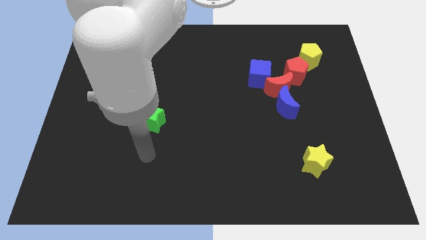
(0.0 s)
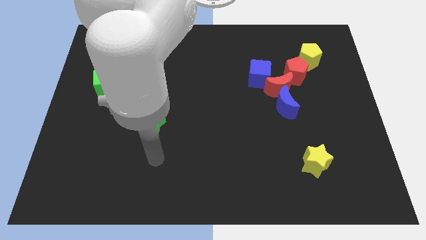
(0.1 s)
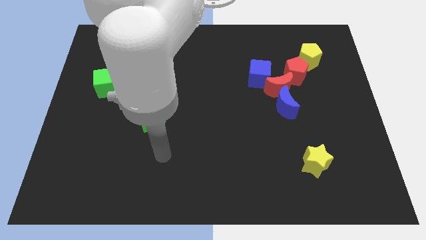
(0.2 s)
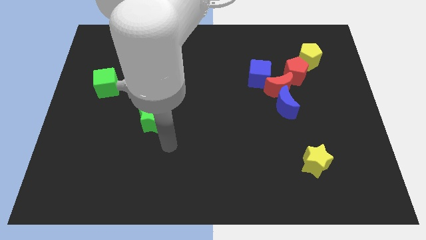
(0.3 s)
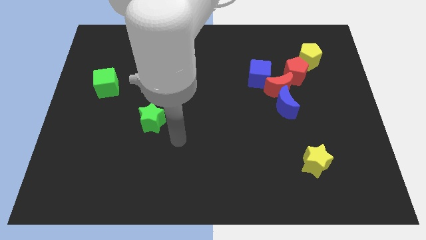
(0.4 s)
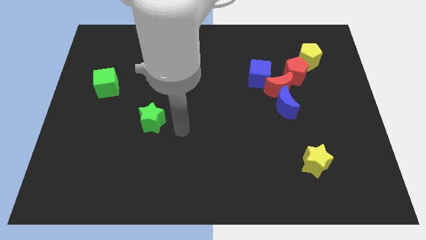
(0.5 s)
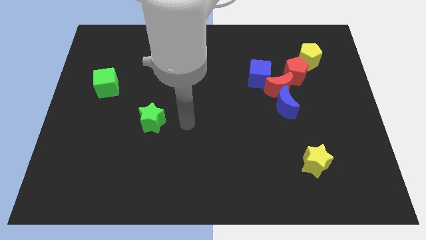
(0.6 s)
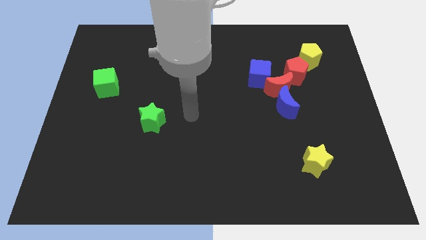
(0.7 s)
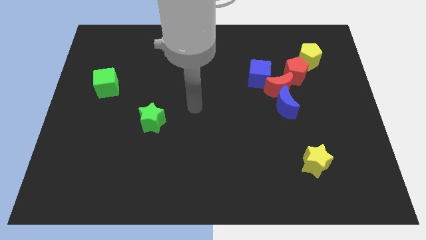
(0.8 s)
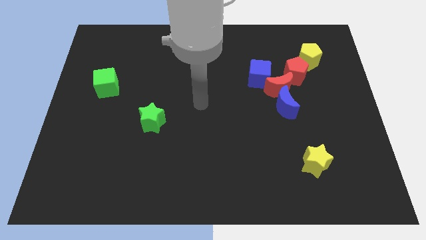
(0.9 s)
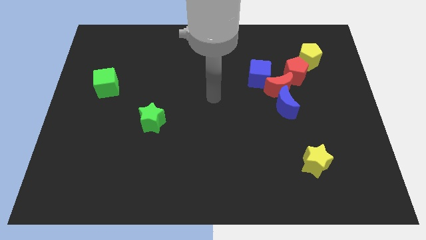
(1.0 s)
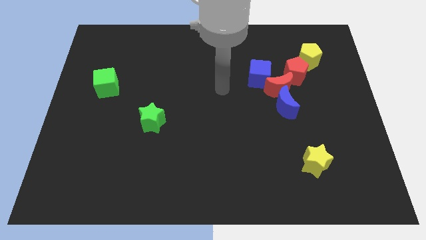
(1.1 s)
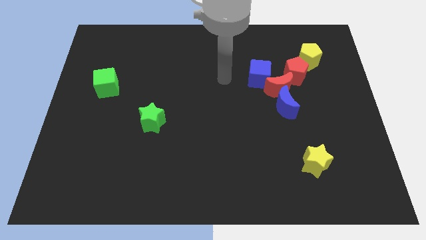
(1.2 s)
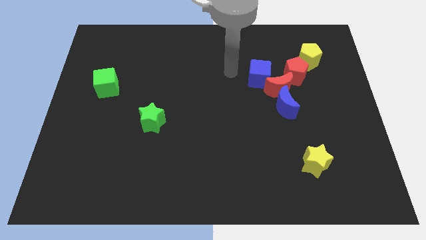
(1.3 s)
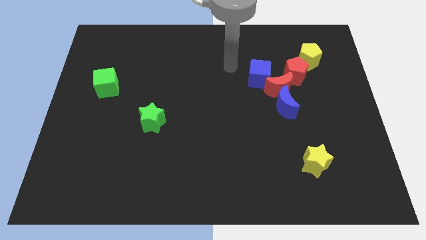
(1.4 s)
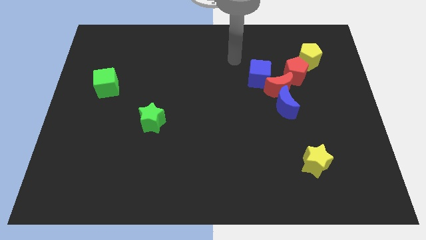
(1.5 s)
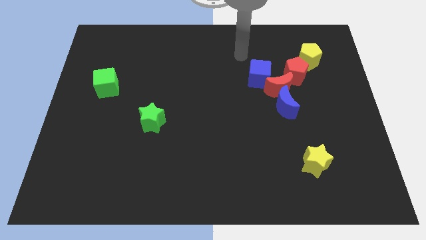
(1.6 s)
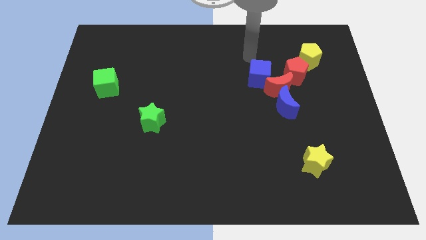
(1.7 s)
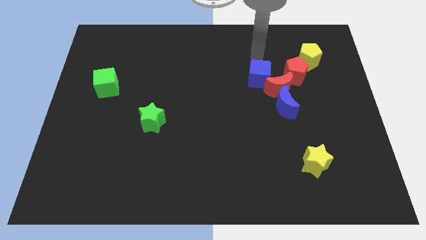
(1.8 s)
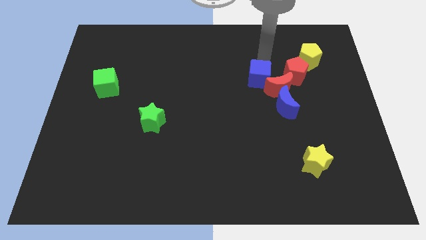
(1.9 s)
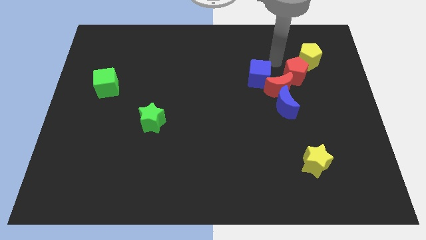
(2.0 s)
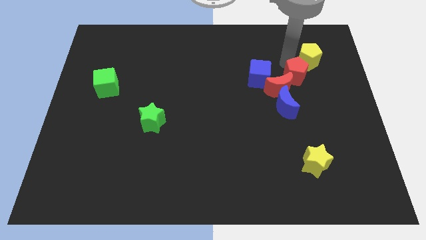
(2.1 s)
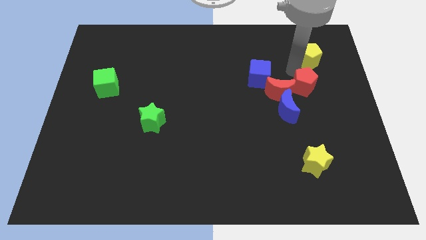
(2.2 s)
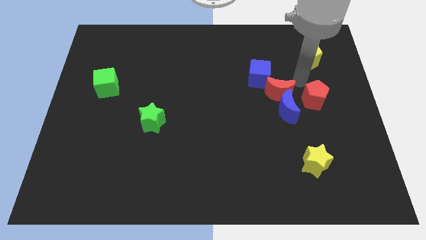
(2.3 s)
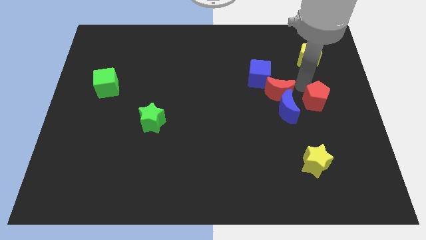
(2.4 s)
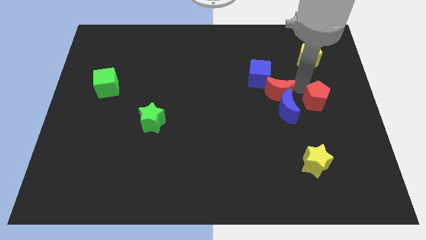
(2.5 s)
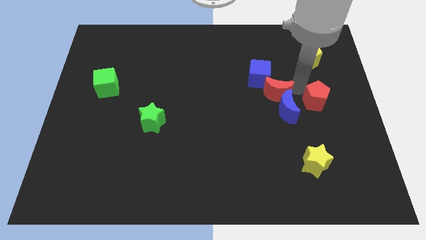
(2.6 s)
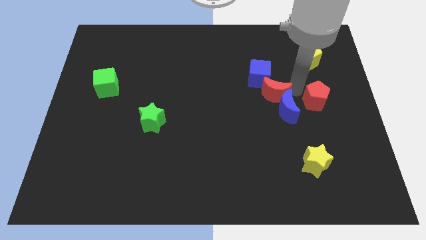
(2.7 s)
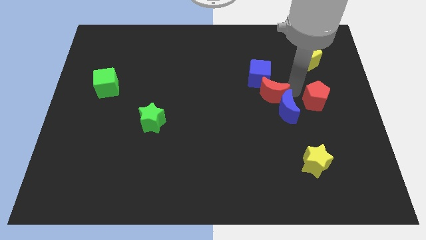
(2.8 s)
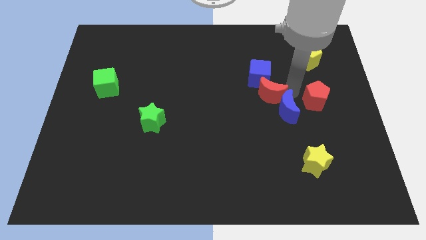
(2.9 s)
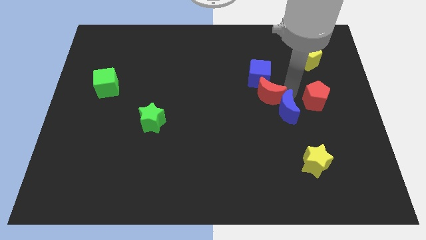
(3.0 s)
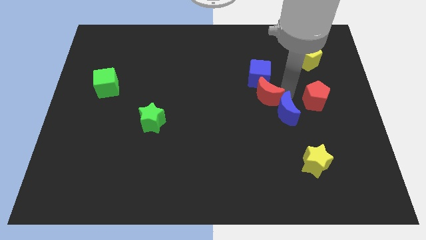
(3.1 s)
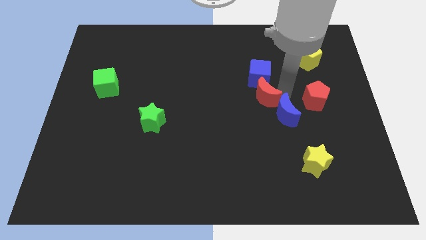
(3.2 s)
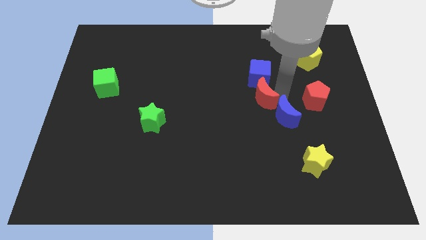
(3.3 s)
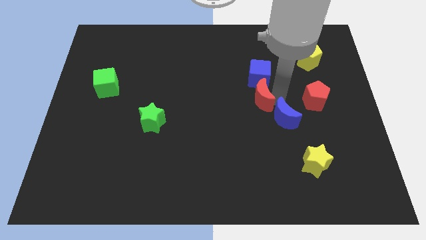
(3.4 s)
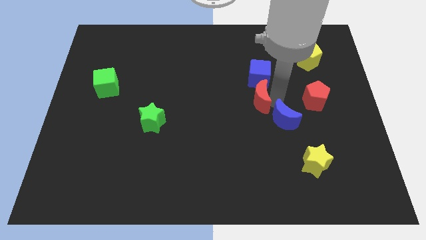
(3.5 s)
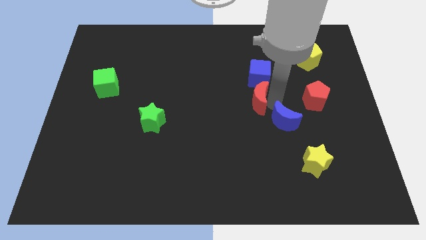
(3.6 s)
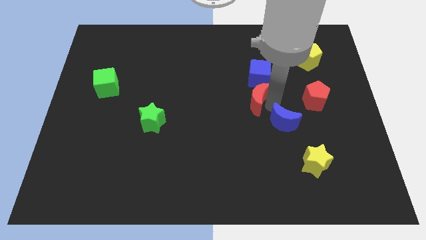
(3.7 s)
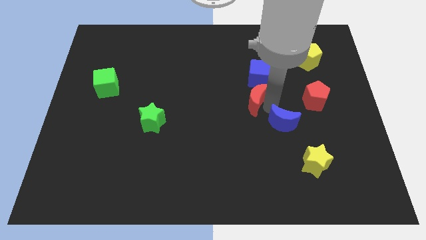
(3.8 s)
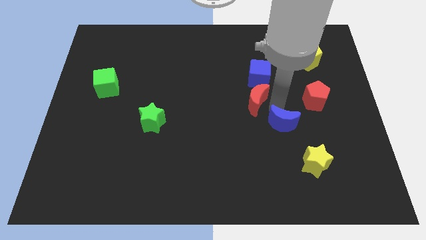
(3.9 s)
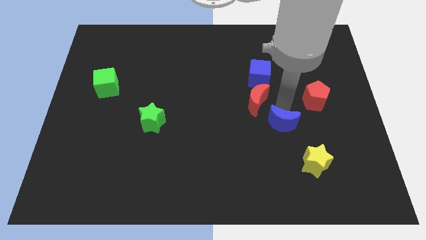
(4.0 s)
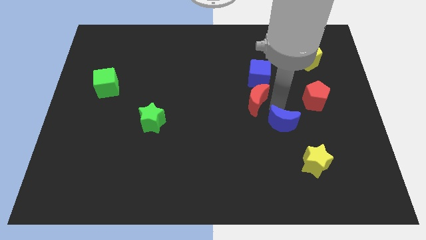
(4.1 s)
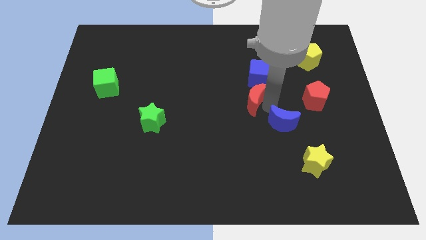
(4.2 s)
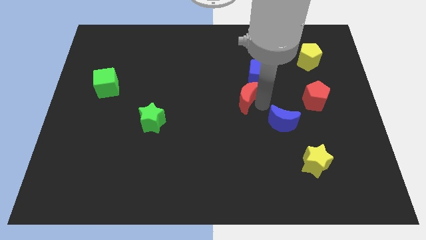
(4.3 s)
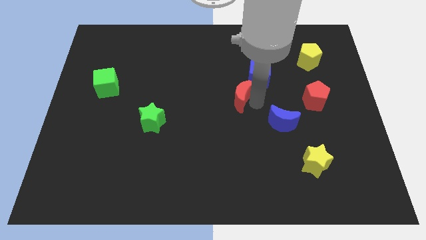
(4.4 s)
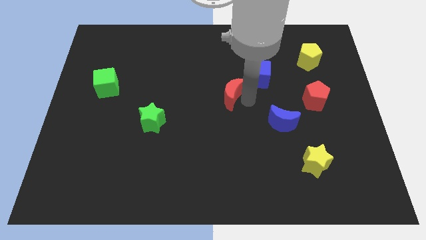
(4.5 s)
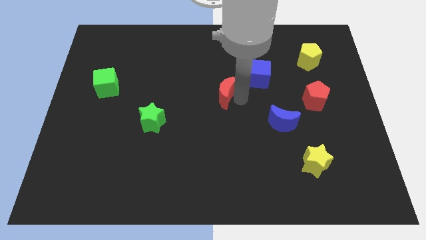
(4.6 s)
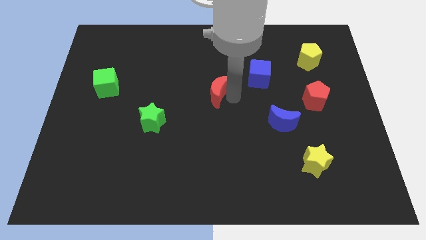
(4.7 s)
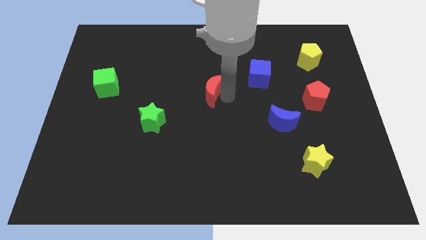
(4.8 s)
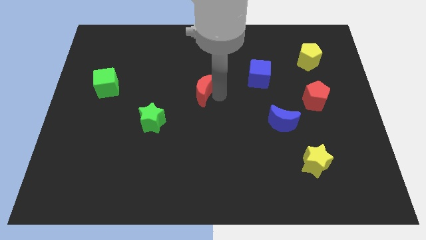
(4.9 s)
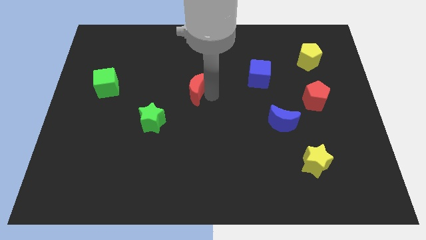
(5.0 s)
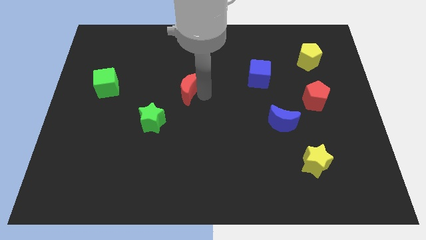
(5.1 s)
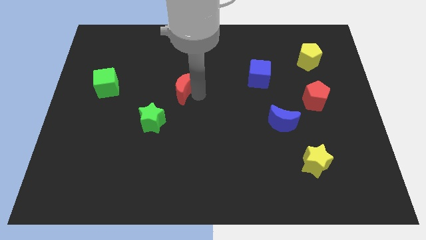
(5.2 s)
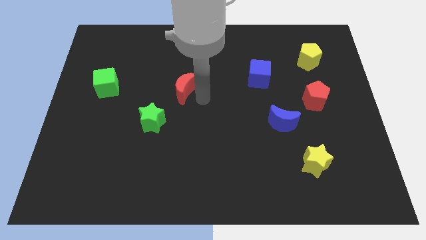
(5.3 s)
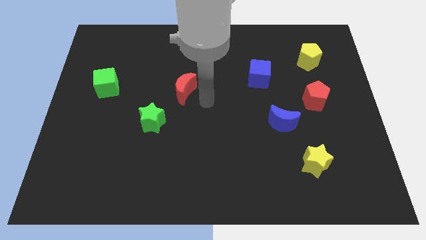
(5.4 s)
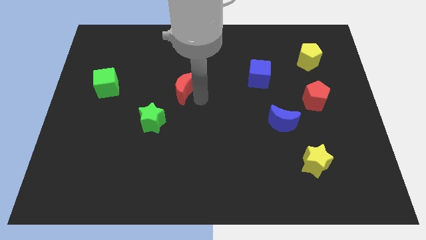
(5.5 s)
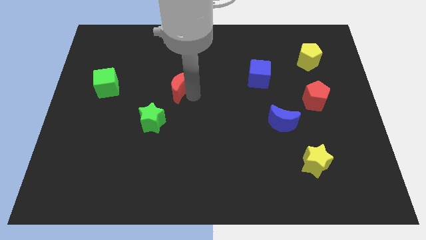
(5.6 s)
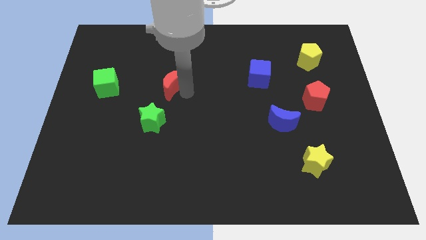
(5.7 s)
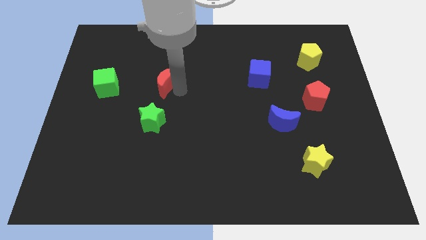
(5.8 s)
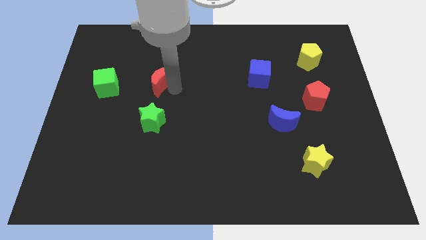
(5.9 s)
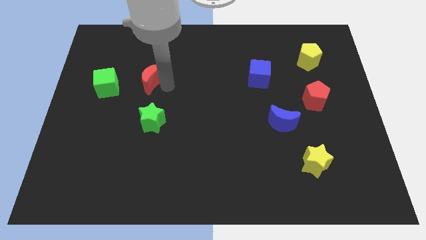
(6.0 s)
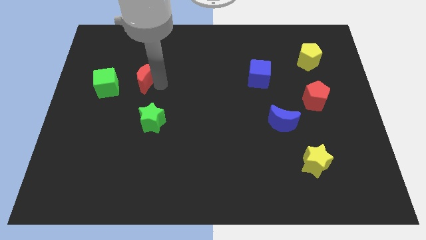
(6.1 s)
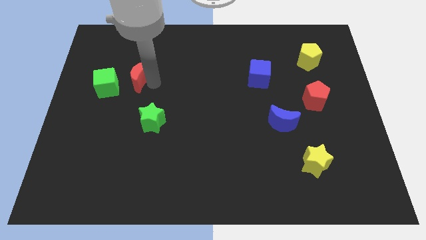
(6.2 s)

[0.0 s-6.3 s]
put the red moon diagonally up and to the right of the green cube

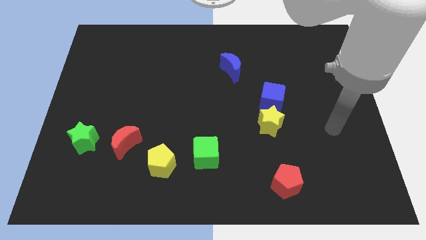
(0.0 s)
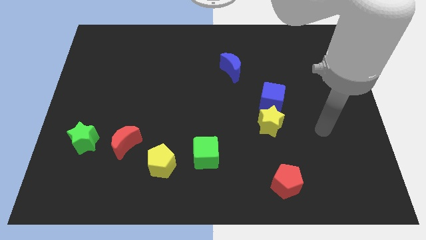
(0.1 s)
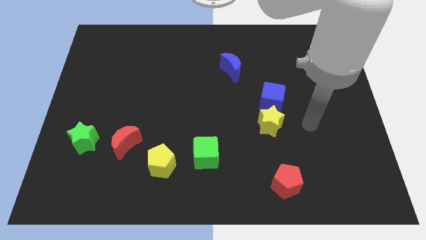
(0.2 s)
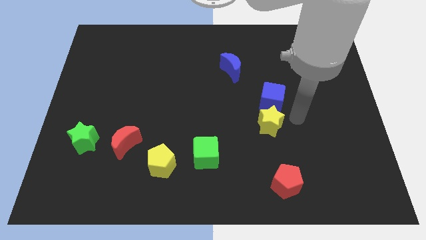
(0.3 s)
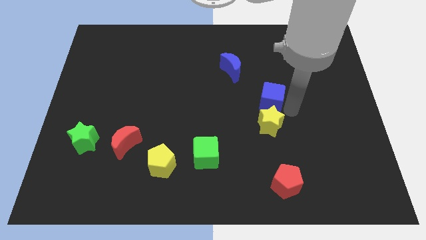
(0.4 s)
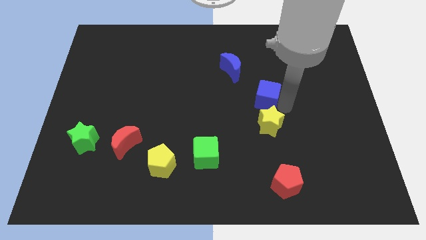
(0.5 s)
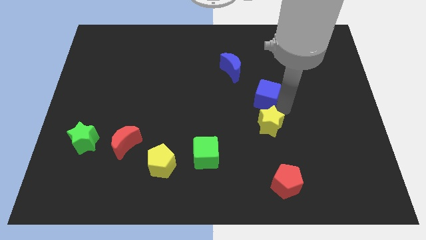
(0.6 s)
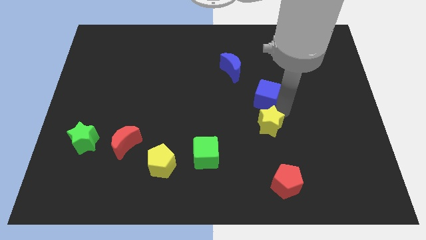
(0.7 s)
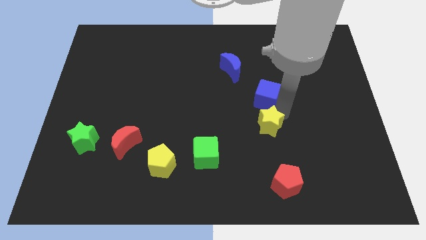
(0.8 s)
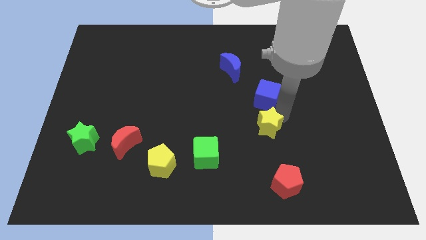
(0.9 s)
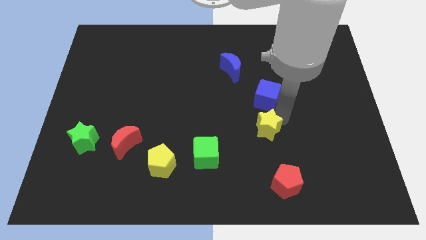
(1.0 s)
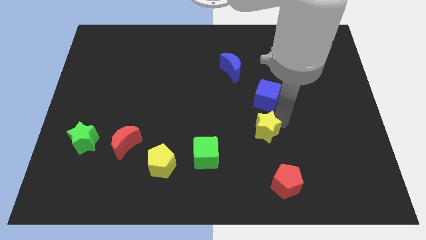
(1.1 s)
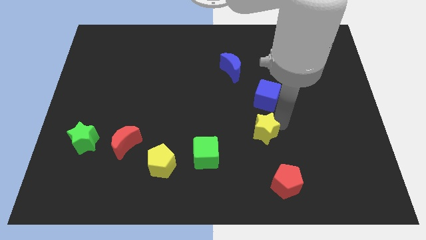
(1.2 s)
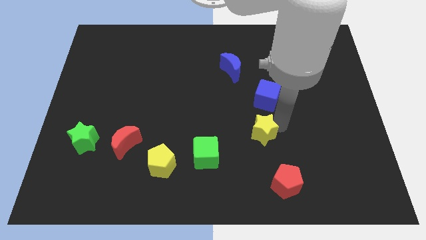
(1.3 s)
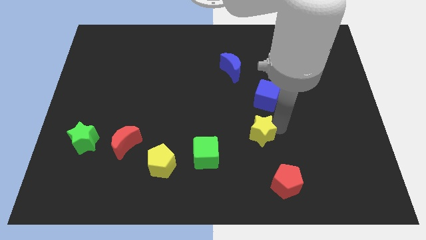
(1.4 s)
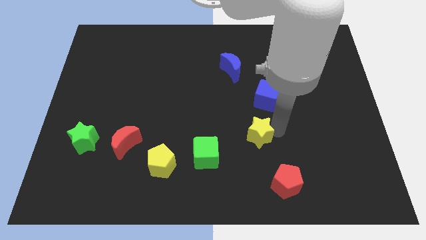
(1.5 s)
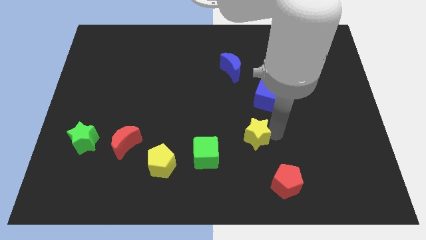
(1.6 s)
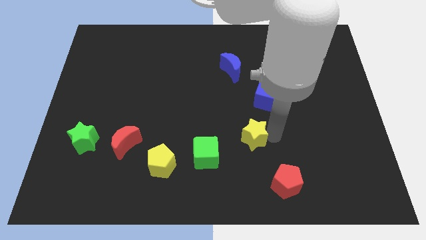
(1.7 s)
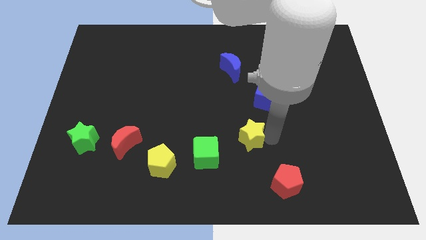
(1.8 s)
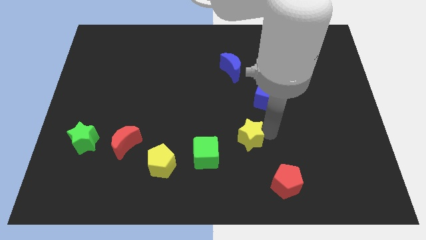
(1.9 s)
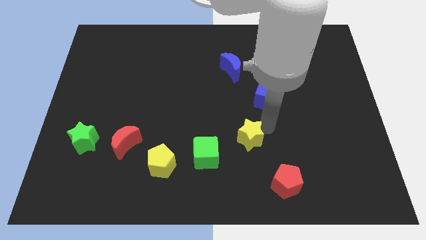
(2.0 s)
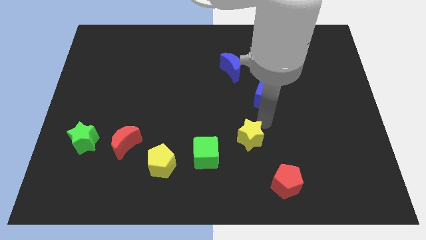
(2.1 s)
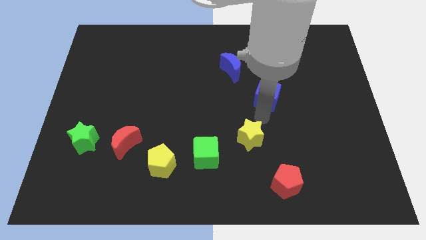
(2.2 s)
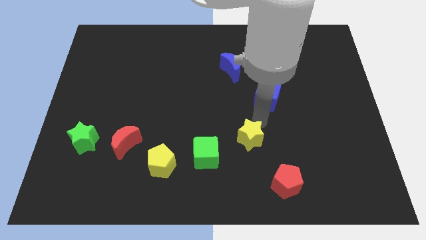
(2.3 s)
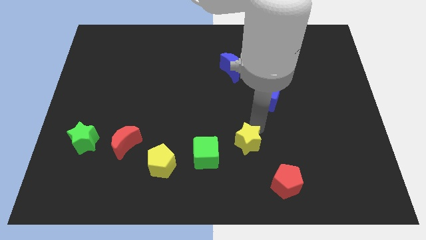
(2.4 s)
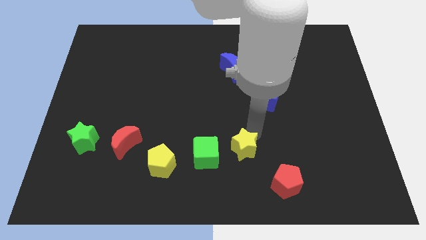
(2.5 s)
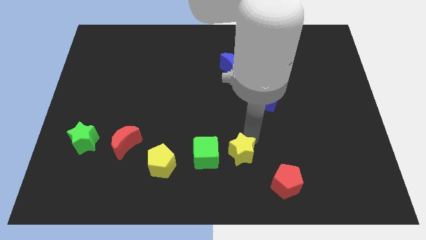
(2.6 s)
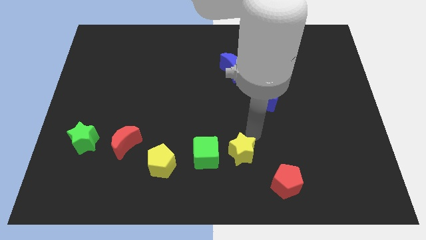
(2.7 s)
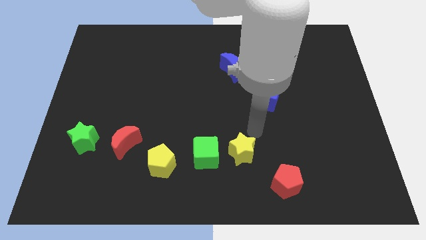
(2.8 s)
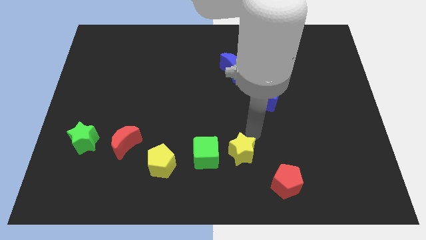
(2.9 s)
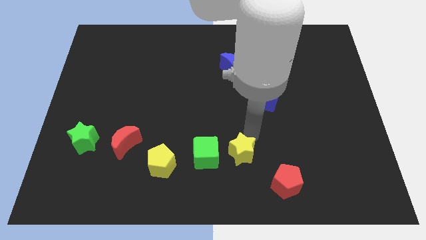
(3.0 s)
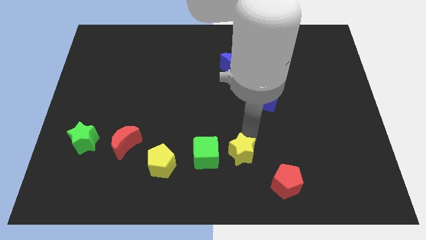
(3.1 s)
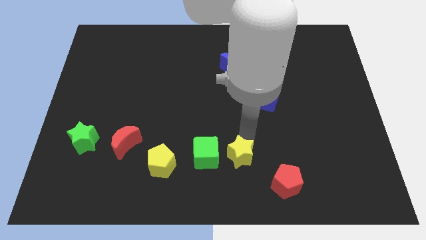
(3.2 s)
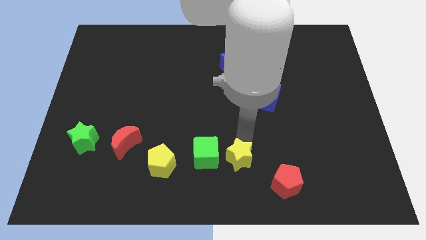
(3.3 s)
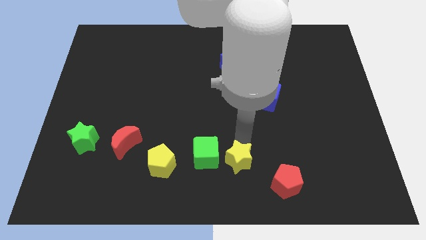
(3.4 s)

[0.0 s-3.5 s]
move the yellow star to the right side of the yellow pentagon
